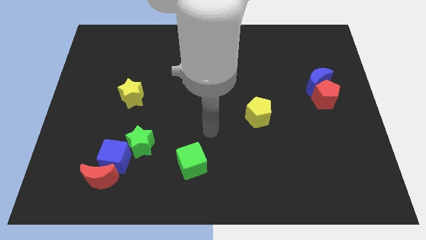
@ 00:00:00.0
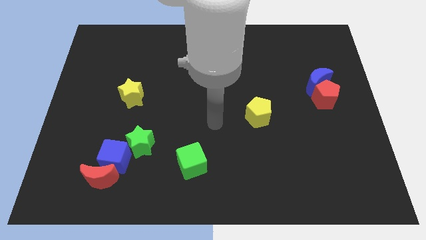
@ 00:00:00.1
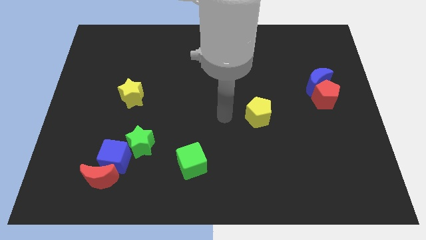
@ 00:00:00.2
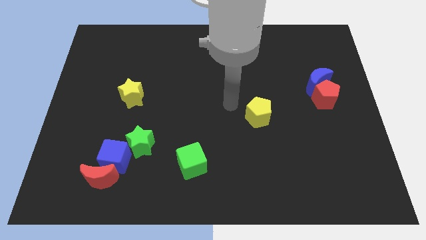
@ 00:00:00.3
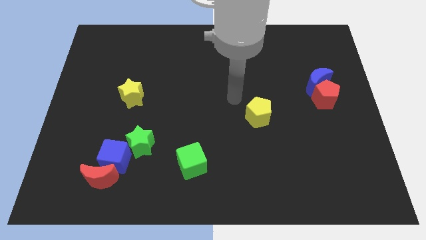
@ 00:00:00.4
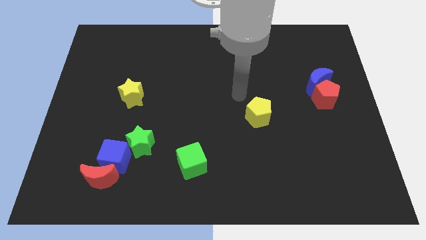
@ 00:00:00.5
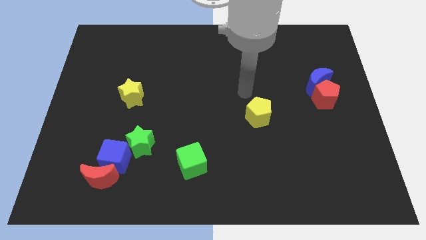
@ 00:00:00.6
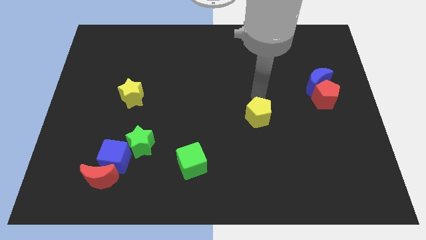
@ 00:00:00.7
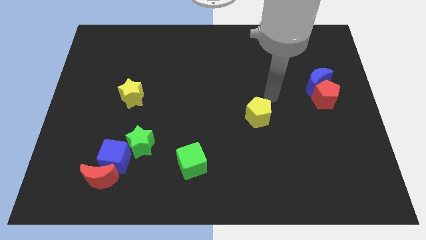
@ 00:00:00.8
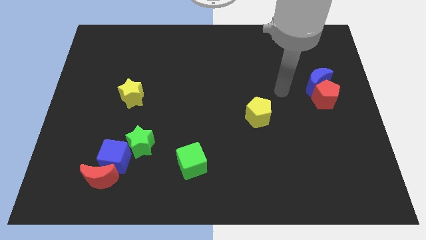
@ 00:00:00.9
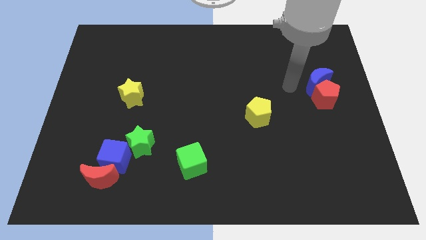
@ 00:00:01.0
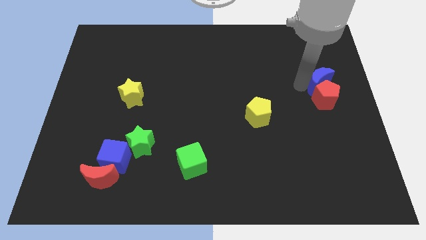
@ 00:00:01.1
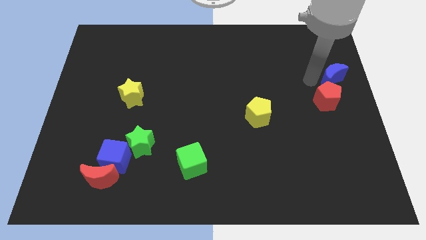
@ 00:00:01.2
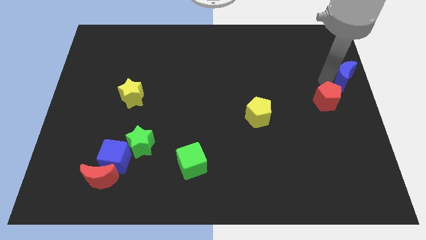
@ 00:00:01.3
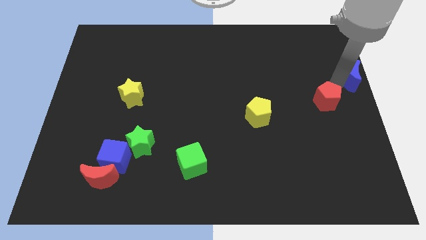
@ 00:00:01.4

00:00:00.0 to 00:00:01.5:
separate the red pentagon from the blue moon

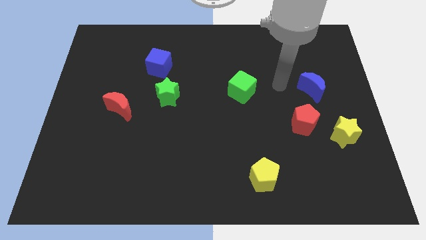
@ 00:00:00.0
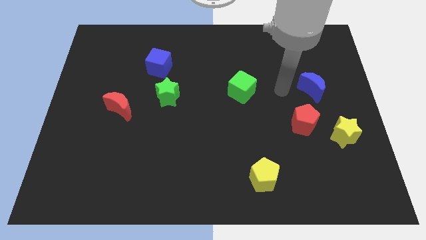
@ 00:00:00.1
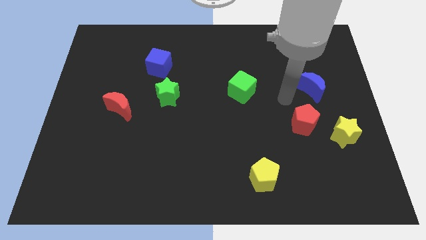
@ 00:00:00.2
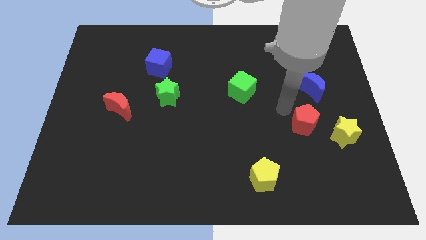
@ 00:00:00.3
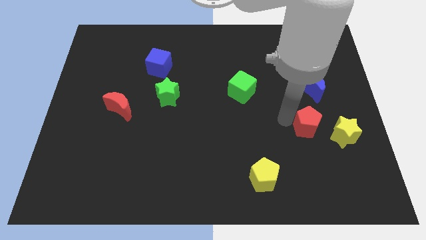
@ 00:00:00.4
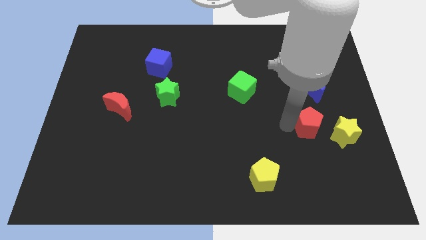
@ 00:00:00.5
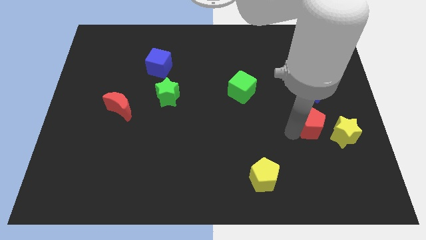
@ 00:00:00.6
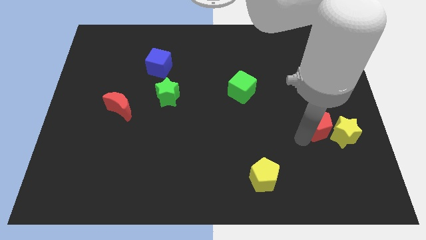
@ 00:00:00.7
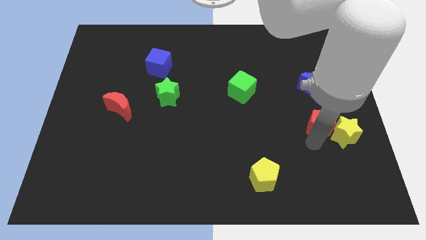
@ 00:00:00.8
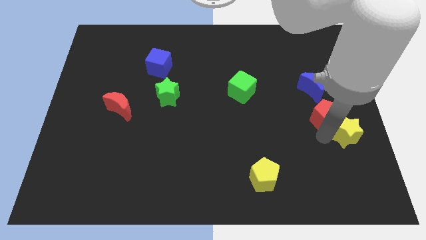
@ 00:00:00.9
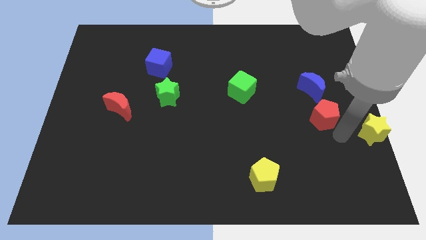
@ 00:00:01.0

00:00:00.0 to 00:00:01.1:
separate the red pentagon from the yellow star

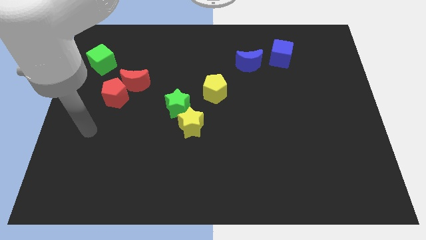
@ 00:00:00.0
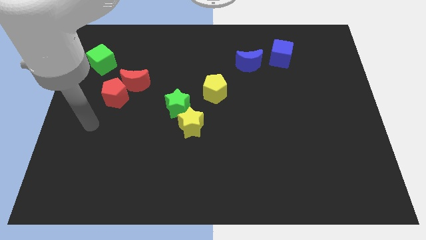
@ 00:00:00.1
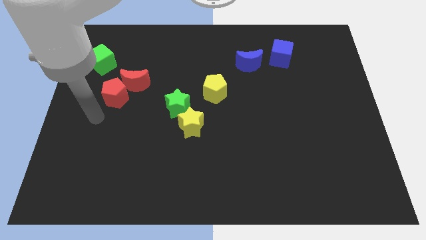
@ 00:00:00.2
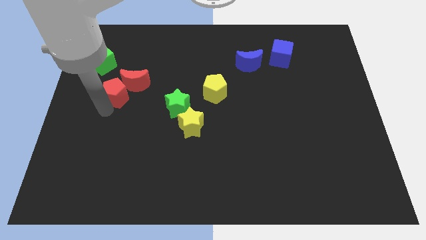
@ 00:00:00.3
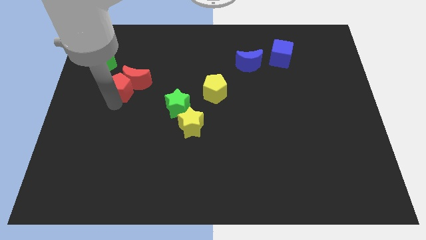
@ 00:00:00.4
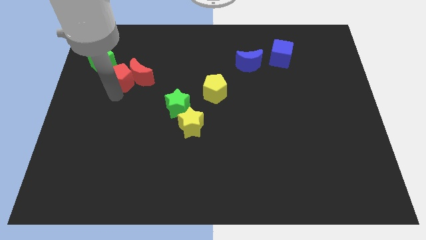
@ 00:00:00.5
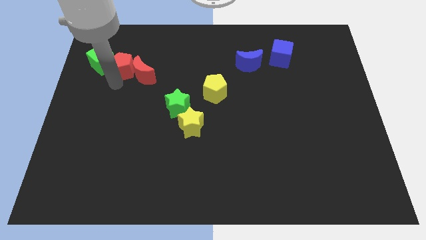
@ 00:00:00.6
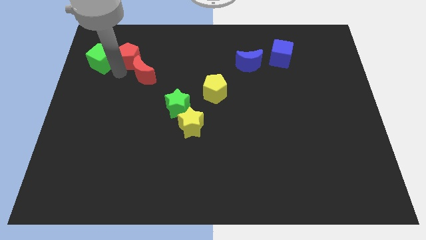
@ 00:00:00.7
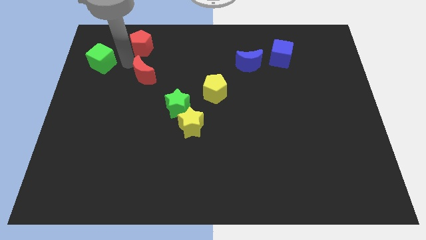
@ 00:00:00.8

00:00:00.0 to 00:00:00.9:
pull the red moon apart from the red pentagon

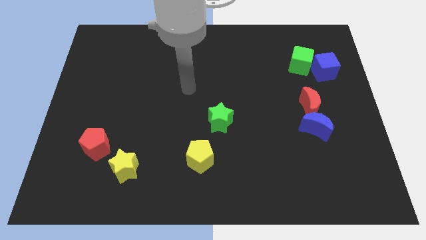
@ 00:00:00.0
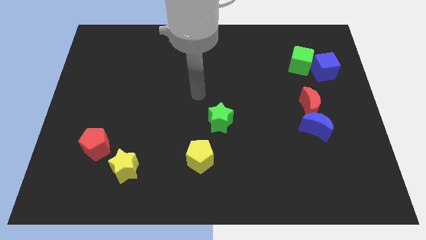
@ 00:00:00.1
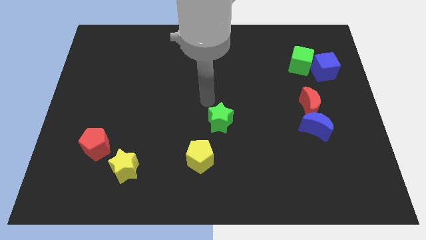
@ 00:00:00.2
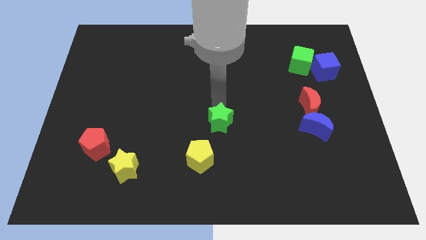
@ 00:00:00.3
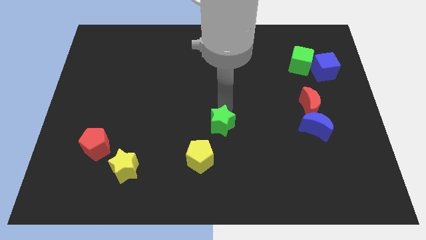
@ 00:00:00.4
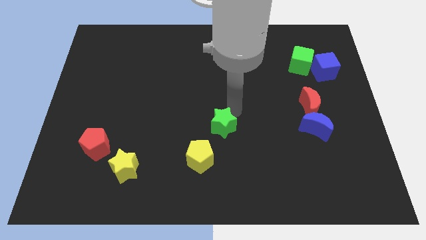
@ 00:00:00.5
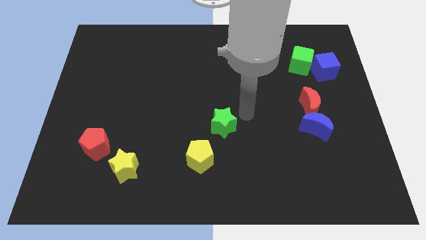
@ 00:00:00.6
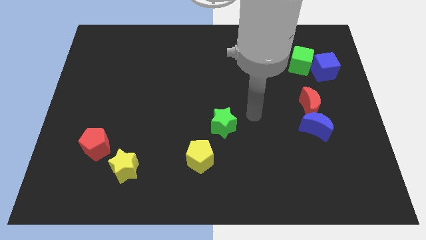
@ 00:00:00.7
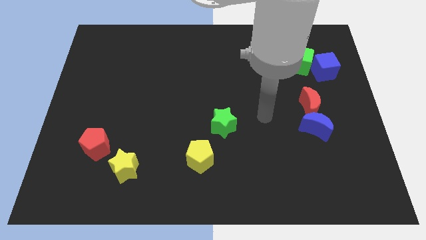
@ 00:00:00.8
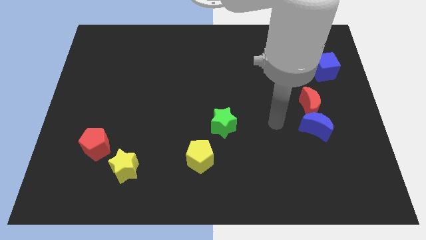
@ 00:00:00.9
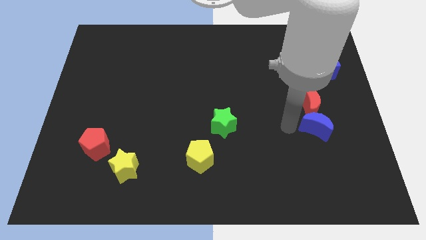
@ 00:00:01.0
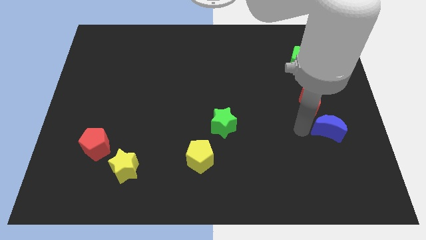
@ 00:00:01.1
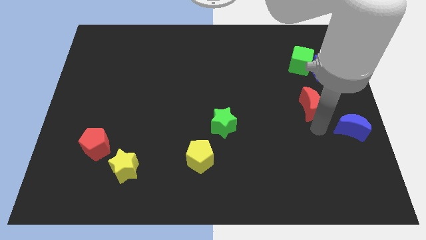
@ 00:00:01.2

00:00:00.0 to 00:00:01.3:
move the red moon away from the blue moon

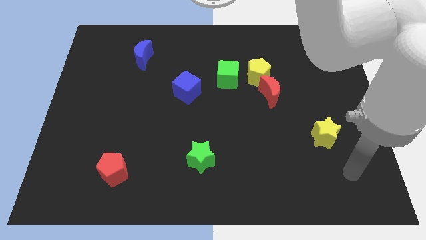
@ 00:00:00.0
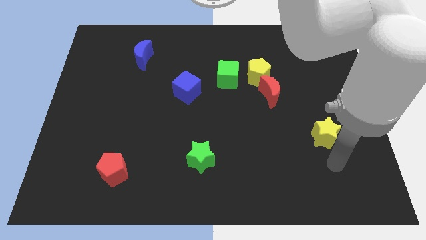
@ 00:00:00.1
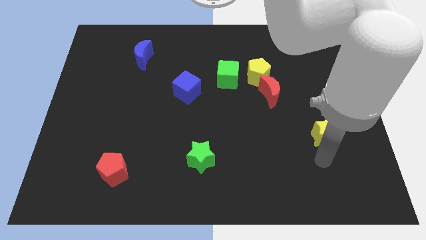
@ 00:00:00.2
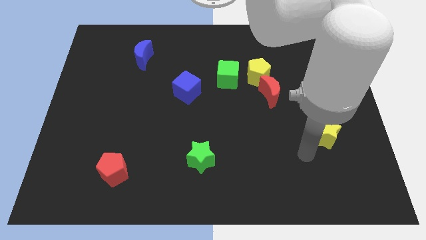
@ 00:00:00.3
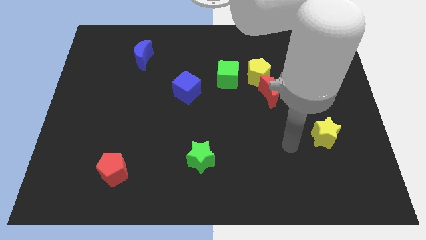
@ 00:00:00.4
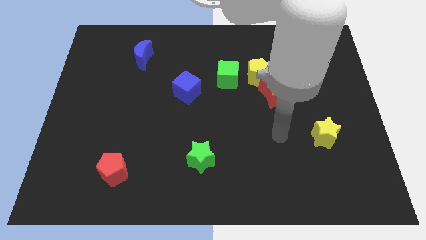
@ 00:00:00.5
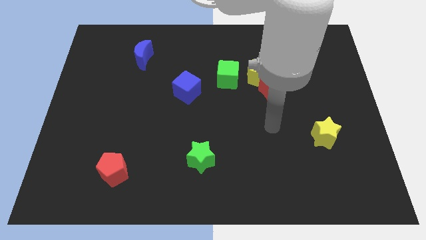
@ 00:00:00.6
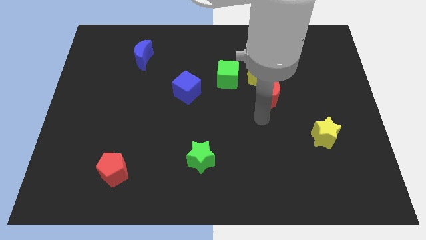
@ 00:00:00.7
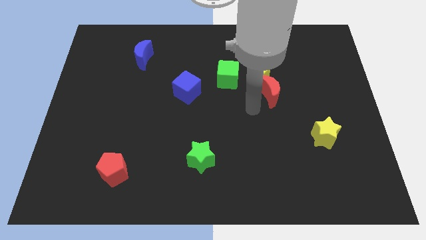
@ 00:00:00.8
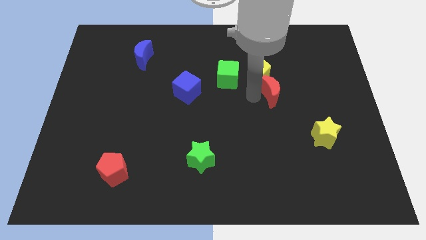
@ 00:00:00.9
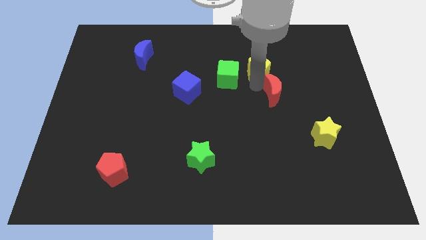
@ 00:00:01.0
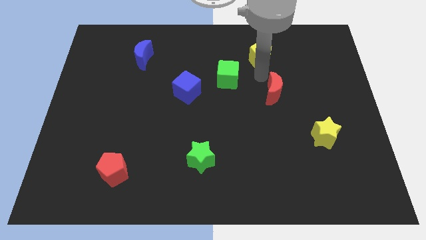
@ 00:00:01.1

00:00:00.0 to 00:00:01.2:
move the red moon away from the yellow pentagon

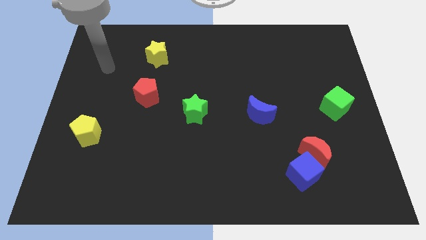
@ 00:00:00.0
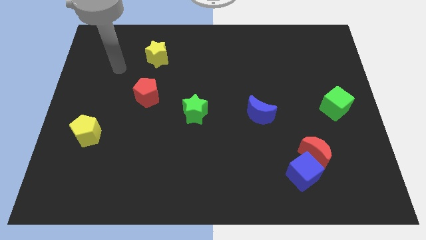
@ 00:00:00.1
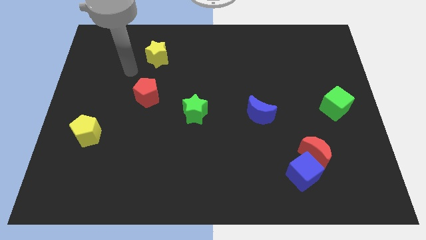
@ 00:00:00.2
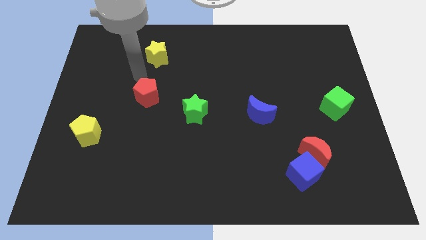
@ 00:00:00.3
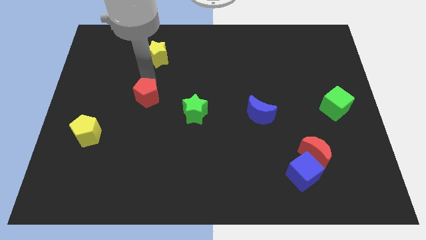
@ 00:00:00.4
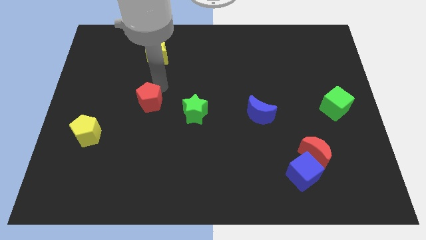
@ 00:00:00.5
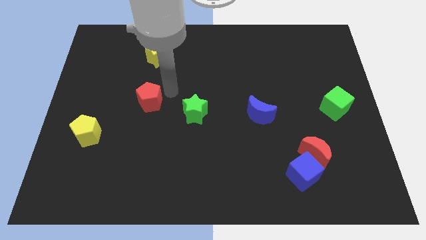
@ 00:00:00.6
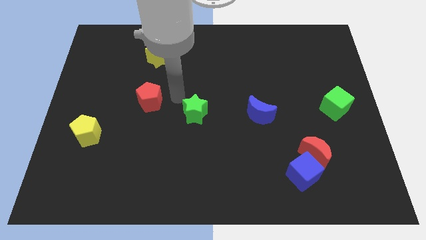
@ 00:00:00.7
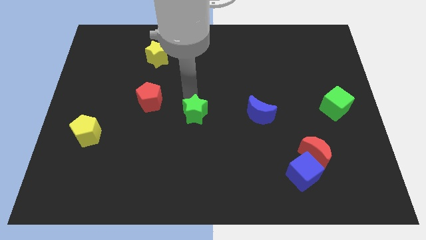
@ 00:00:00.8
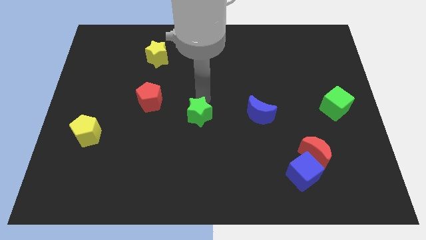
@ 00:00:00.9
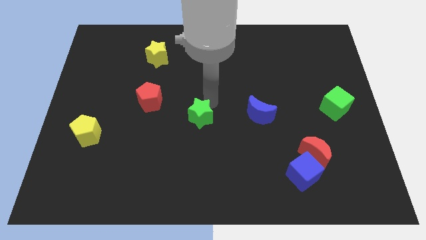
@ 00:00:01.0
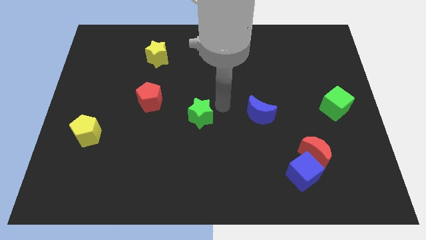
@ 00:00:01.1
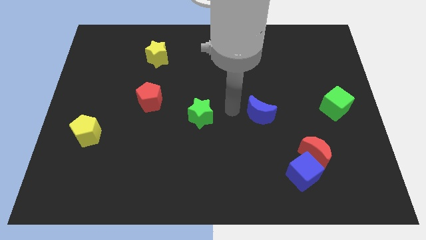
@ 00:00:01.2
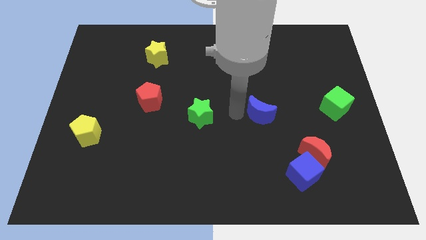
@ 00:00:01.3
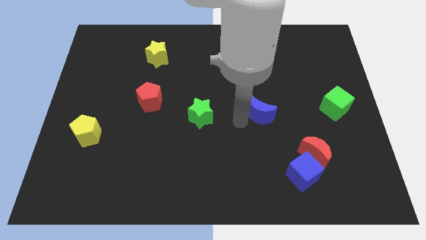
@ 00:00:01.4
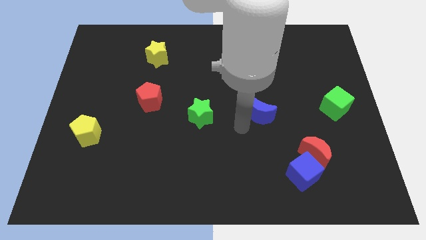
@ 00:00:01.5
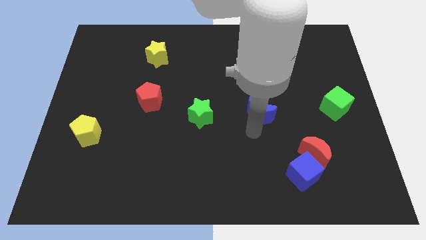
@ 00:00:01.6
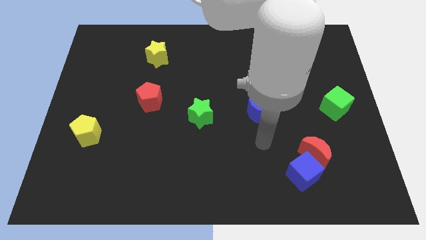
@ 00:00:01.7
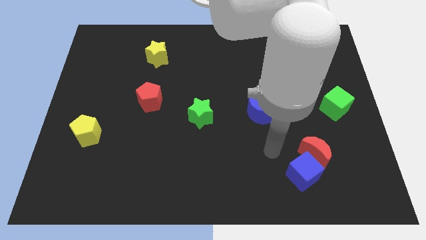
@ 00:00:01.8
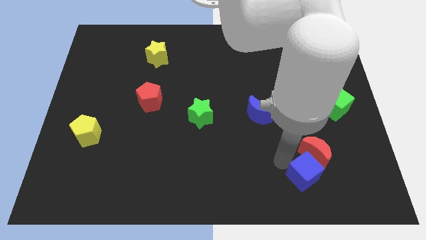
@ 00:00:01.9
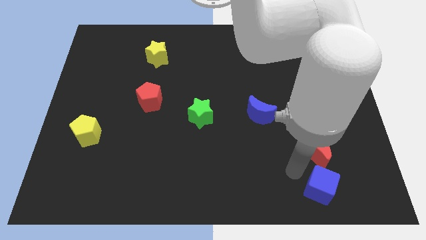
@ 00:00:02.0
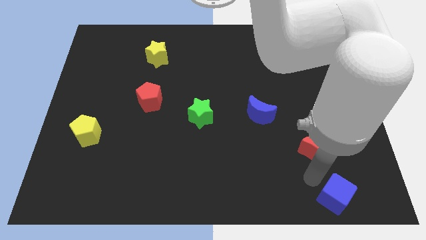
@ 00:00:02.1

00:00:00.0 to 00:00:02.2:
separate the red moon from the blue cube

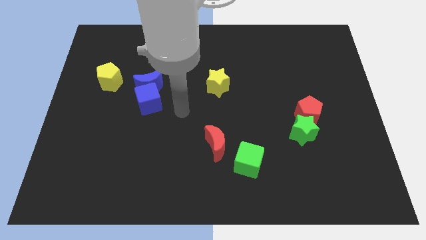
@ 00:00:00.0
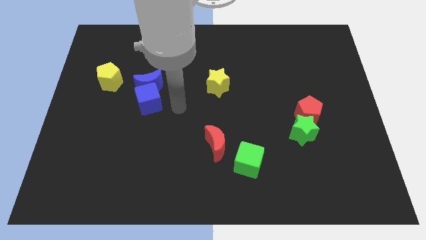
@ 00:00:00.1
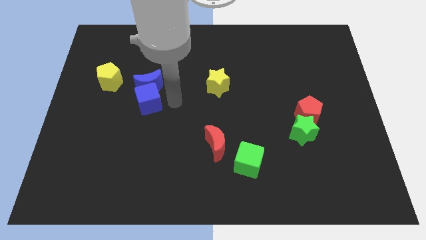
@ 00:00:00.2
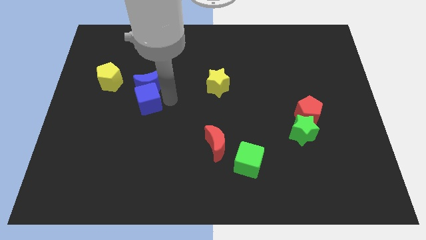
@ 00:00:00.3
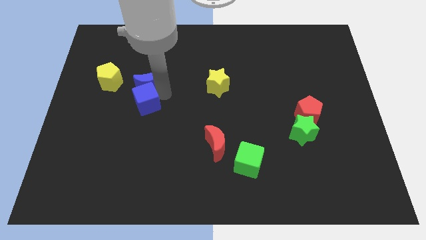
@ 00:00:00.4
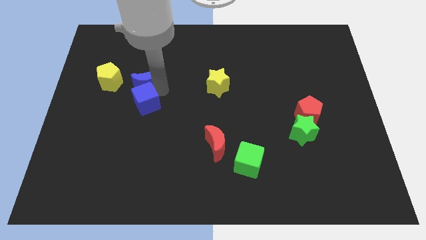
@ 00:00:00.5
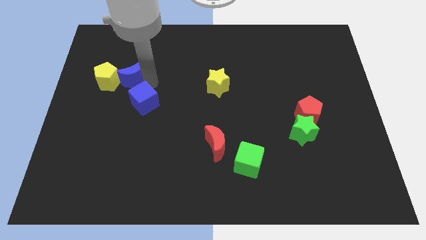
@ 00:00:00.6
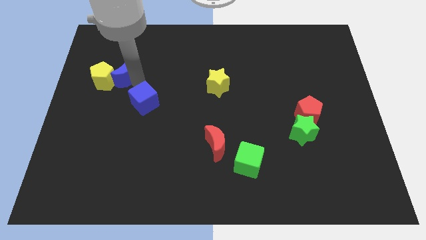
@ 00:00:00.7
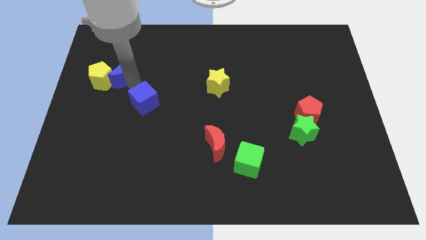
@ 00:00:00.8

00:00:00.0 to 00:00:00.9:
separate the blue cube from the blue moon

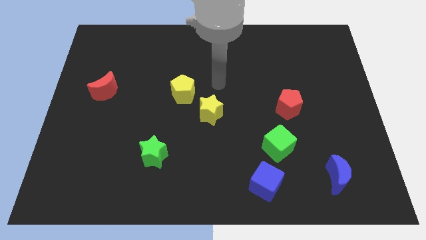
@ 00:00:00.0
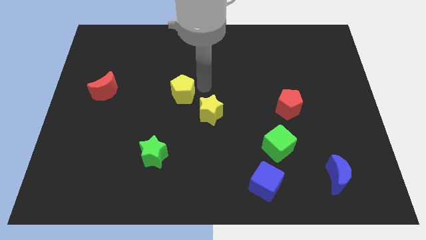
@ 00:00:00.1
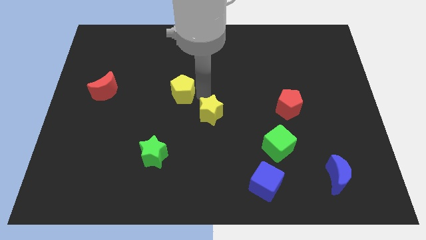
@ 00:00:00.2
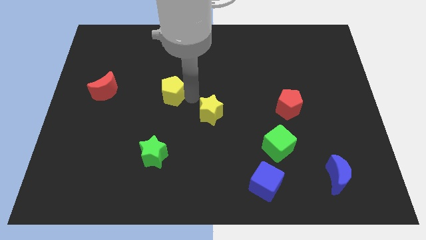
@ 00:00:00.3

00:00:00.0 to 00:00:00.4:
pull the yellow star apart from the yellow pentagon
